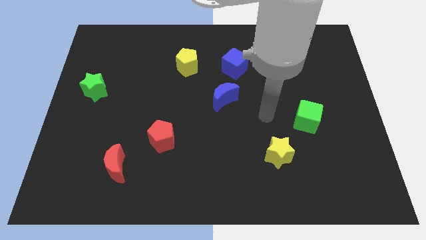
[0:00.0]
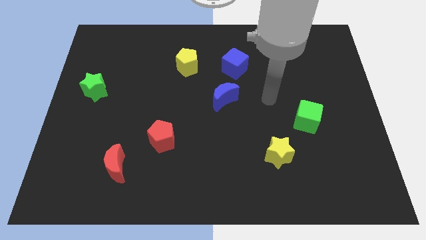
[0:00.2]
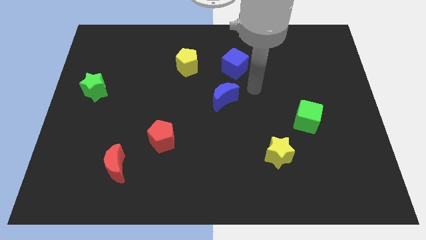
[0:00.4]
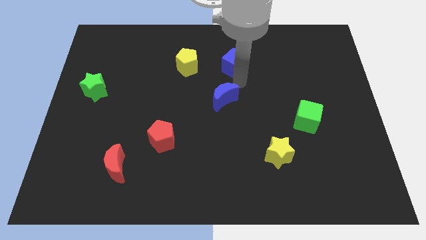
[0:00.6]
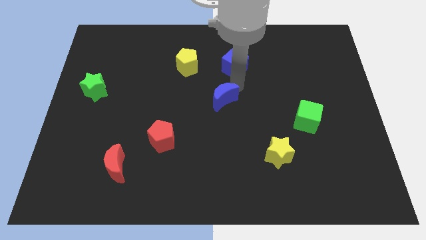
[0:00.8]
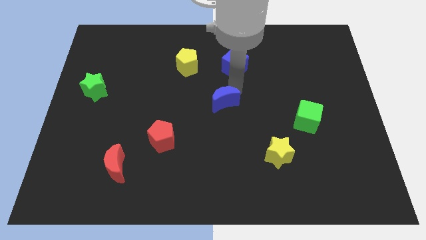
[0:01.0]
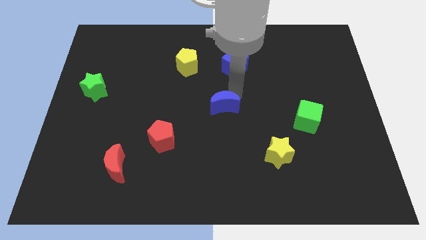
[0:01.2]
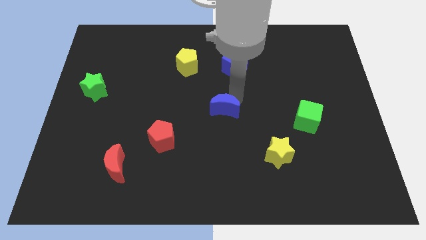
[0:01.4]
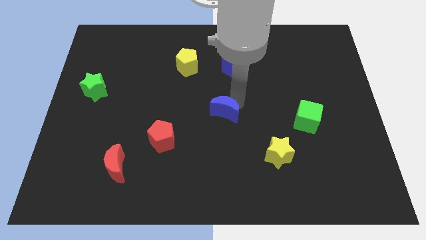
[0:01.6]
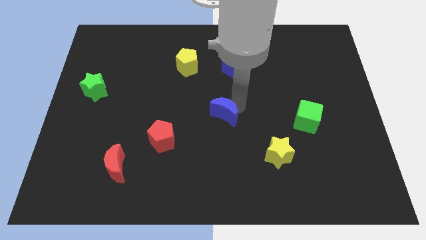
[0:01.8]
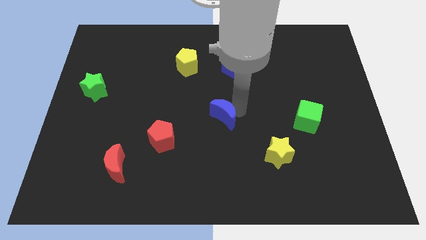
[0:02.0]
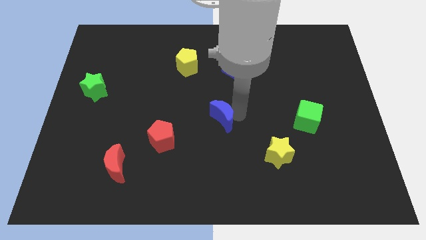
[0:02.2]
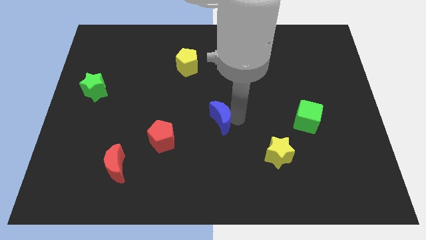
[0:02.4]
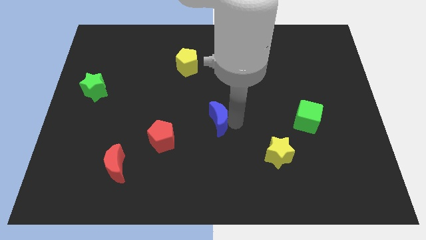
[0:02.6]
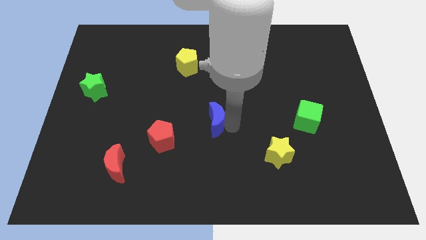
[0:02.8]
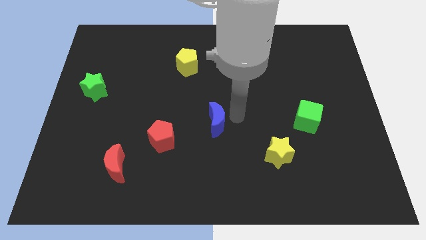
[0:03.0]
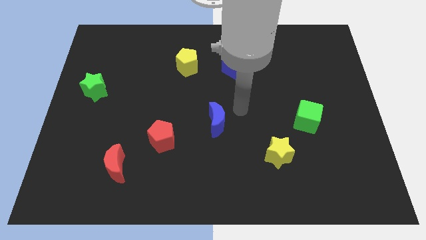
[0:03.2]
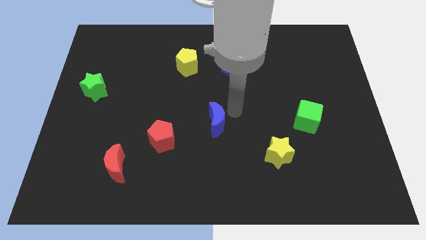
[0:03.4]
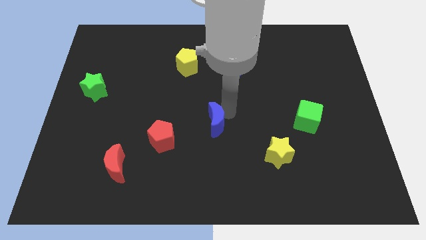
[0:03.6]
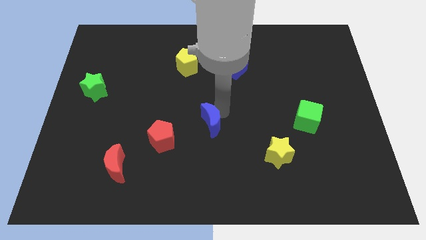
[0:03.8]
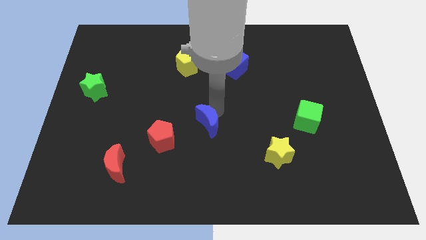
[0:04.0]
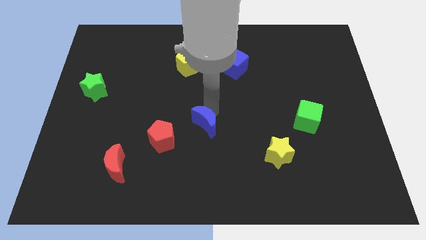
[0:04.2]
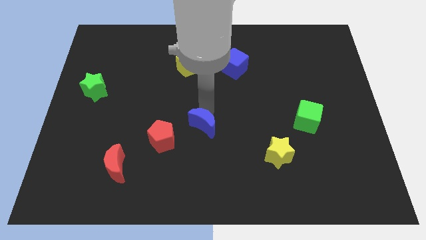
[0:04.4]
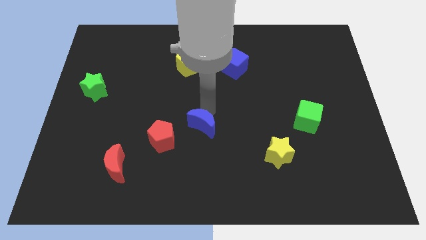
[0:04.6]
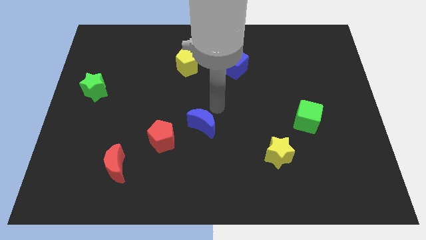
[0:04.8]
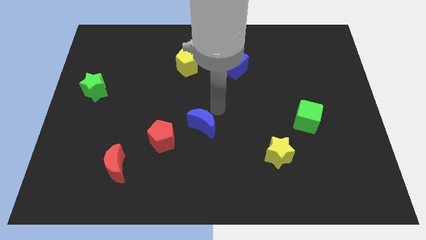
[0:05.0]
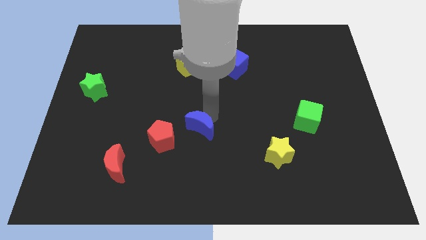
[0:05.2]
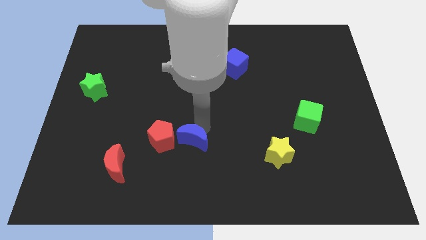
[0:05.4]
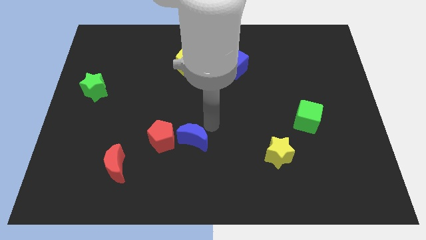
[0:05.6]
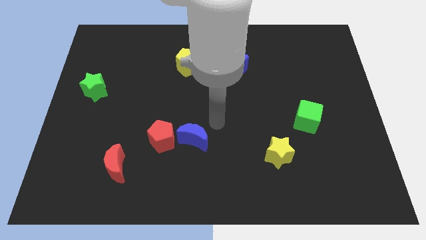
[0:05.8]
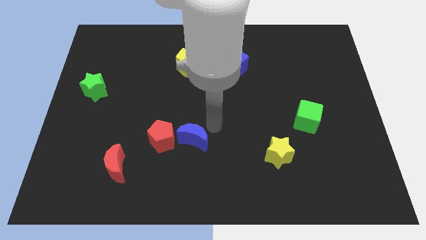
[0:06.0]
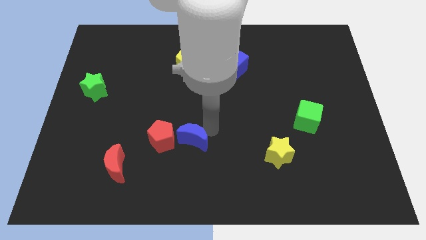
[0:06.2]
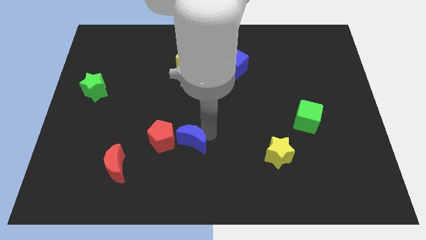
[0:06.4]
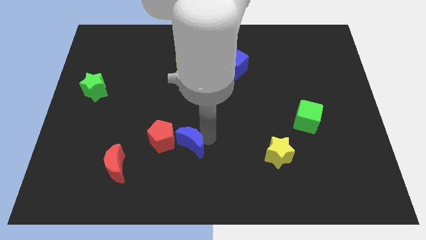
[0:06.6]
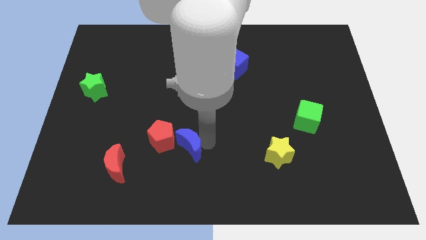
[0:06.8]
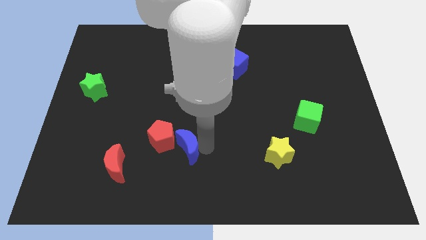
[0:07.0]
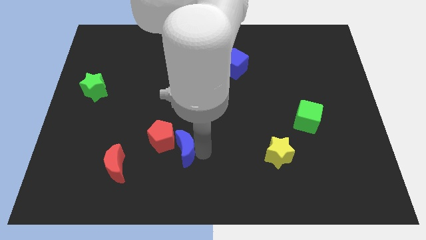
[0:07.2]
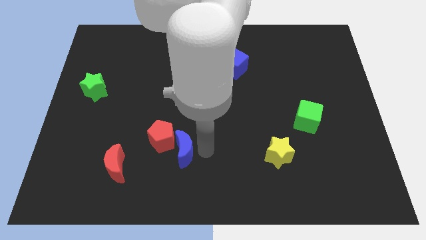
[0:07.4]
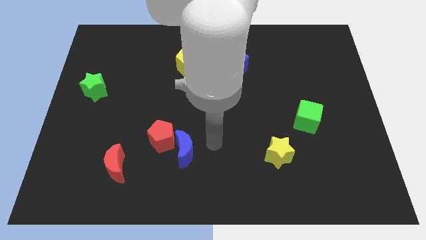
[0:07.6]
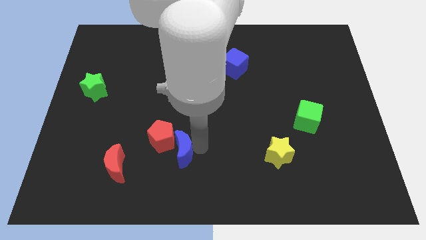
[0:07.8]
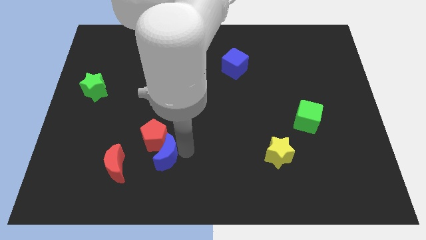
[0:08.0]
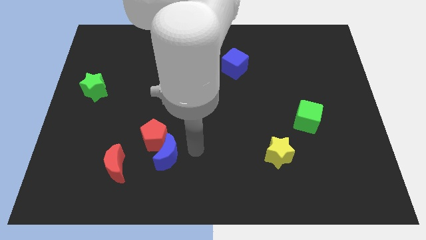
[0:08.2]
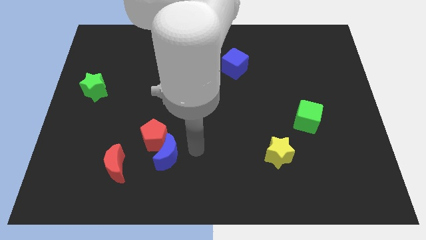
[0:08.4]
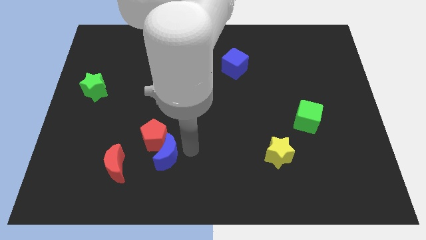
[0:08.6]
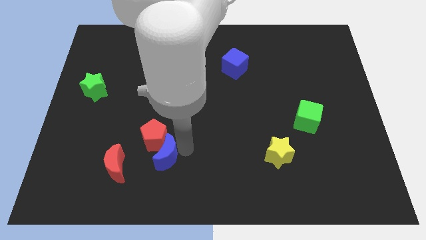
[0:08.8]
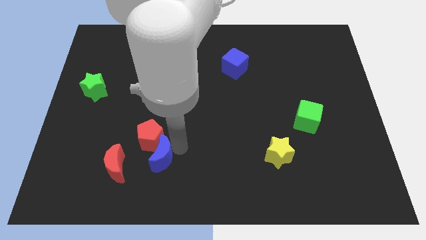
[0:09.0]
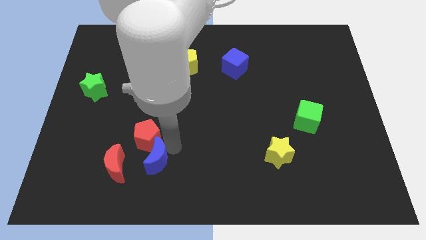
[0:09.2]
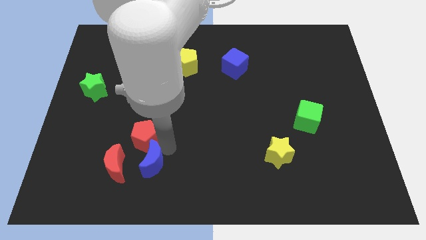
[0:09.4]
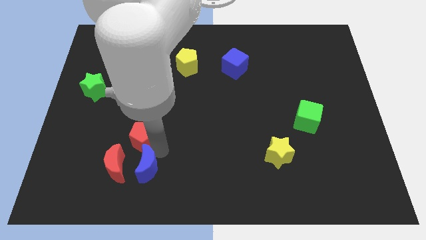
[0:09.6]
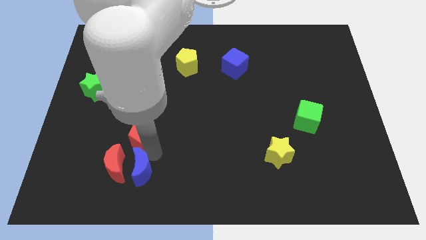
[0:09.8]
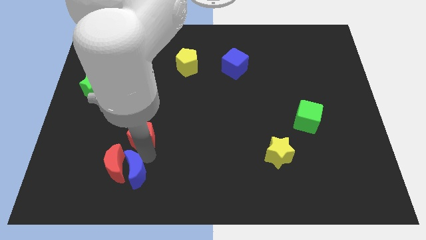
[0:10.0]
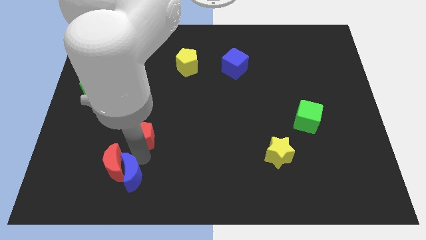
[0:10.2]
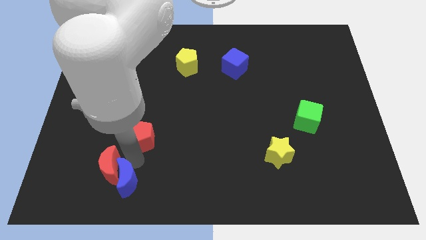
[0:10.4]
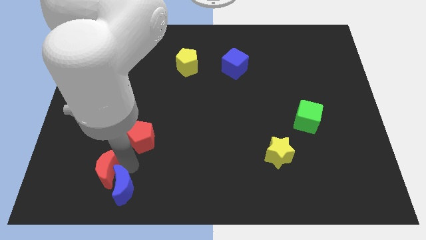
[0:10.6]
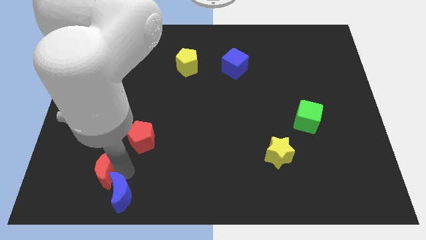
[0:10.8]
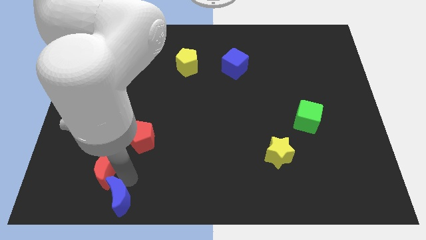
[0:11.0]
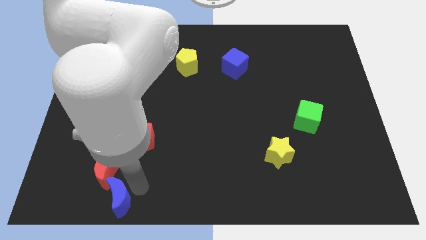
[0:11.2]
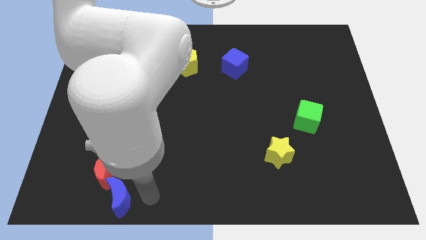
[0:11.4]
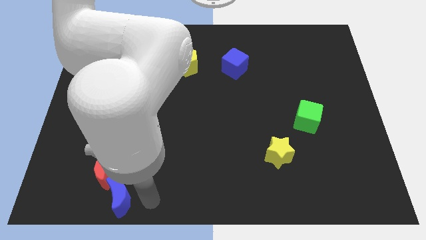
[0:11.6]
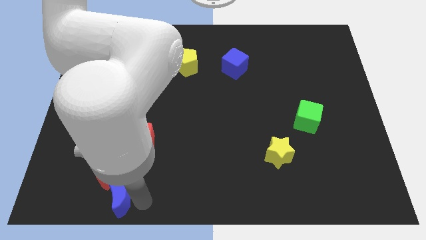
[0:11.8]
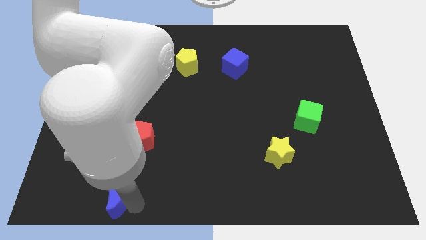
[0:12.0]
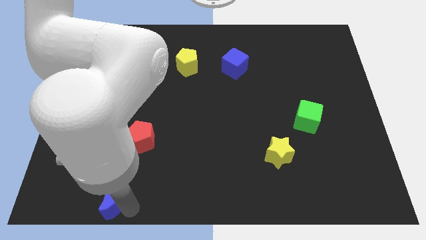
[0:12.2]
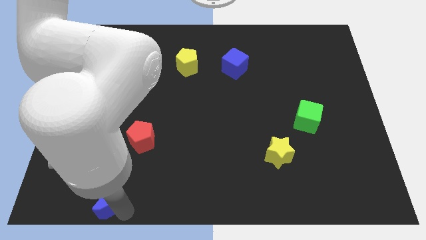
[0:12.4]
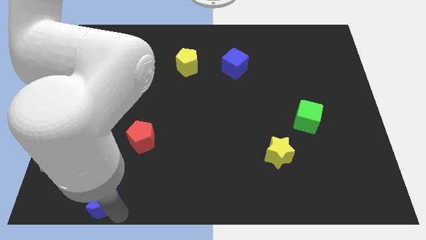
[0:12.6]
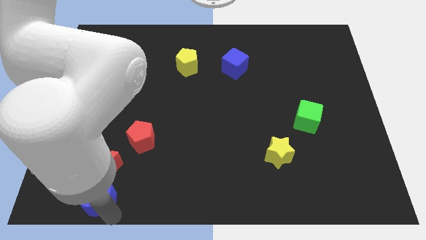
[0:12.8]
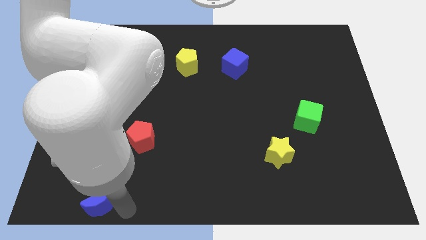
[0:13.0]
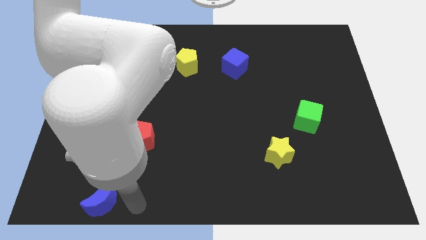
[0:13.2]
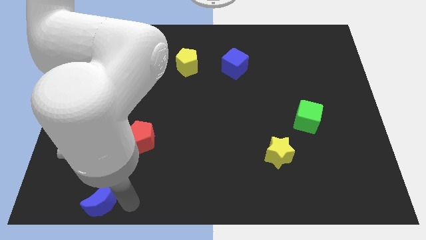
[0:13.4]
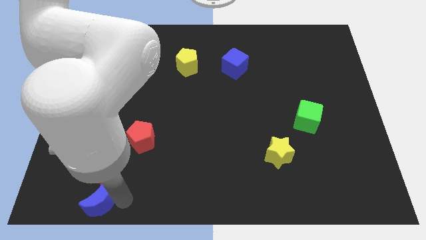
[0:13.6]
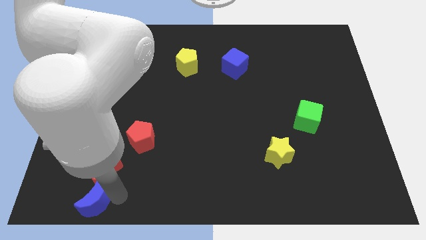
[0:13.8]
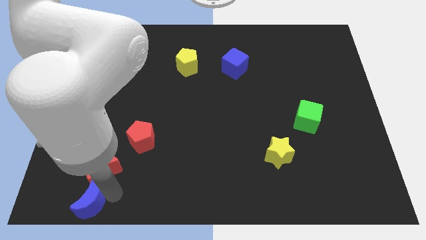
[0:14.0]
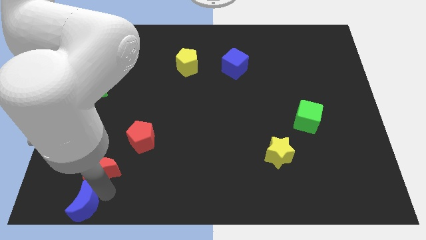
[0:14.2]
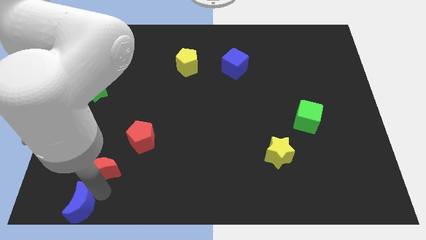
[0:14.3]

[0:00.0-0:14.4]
put the blue moon to the bottom left
